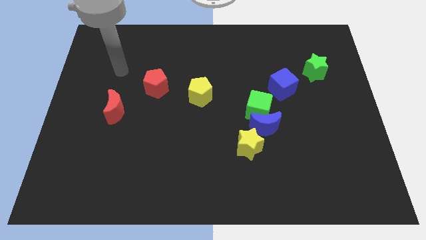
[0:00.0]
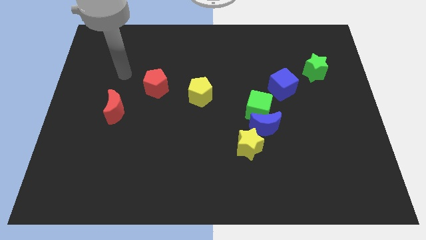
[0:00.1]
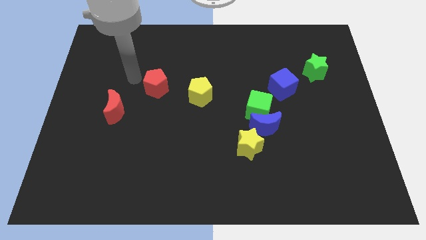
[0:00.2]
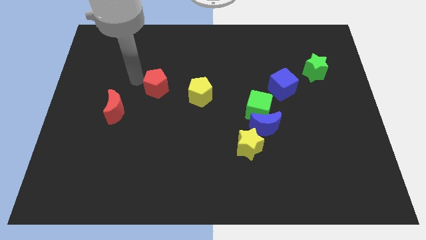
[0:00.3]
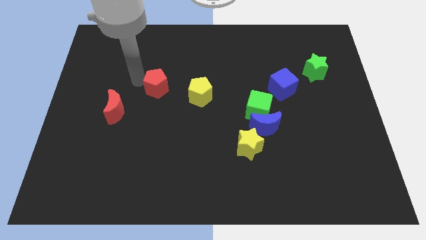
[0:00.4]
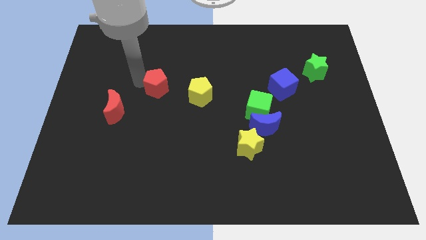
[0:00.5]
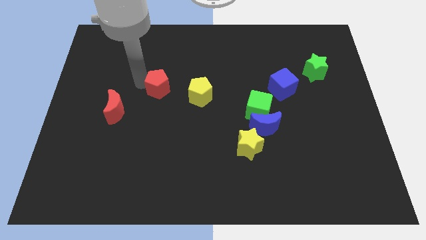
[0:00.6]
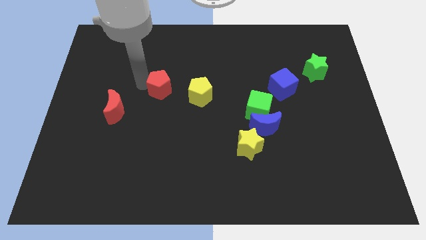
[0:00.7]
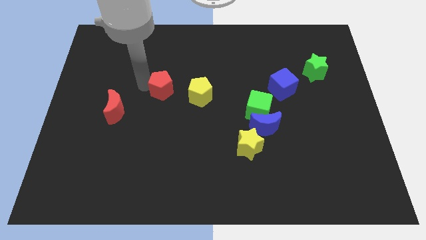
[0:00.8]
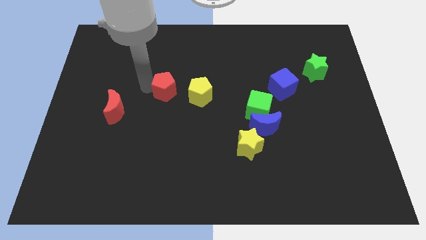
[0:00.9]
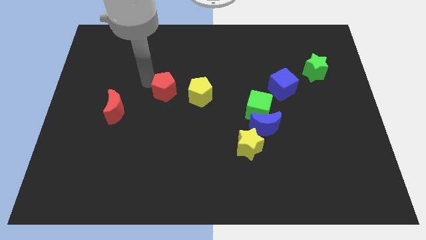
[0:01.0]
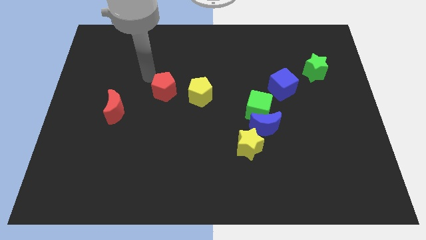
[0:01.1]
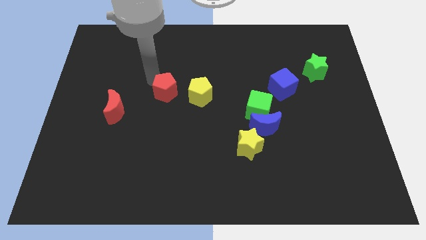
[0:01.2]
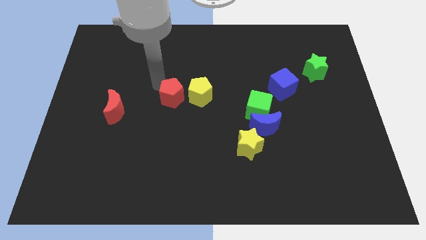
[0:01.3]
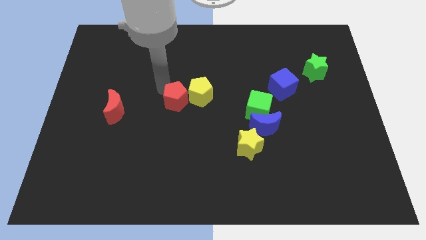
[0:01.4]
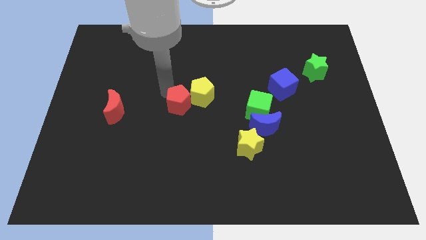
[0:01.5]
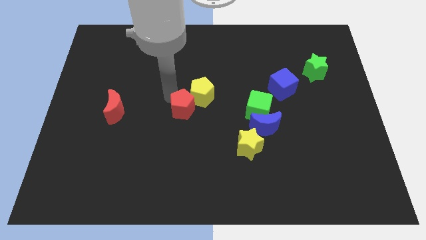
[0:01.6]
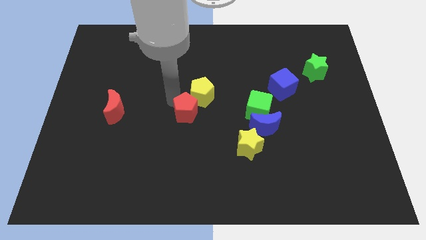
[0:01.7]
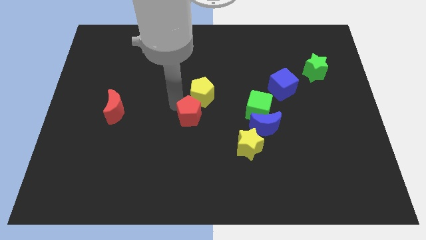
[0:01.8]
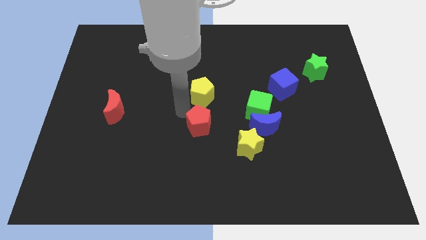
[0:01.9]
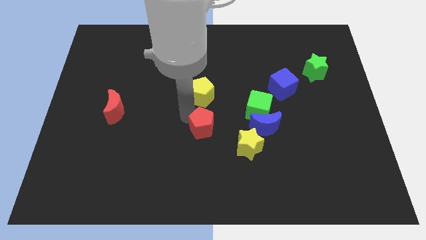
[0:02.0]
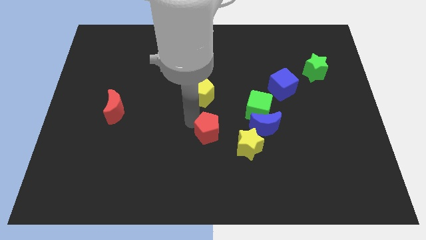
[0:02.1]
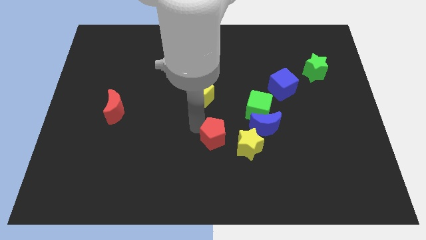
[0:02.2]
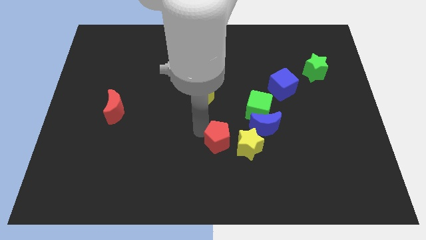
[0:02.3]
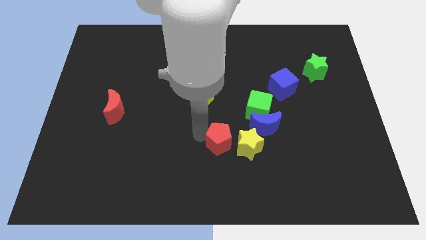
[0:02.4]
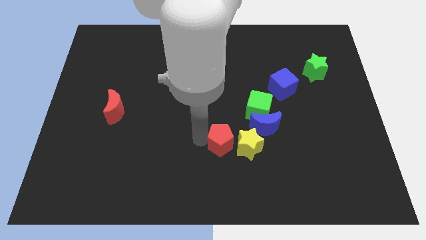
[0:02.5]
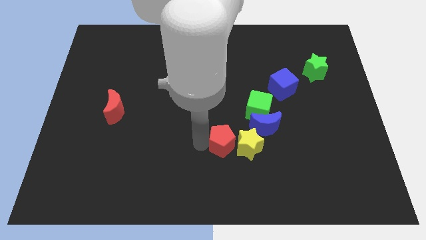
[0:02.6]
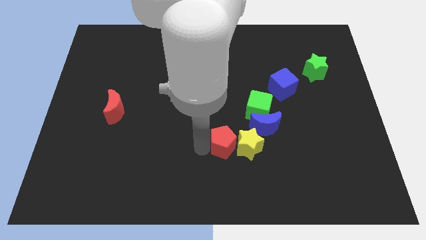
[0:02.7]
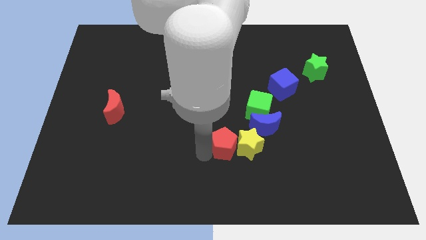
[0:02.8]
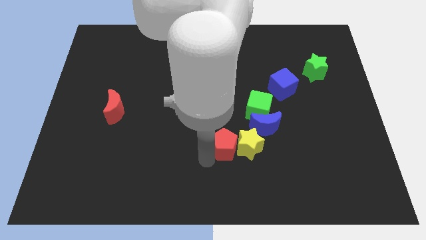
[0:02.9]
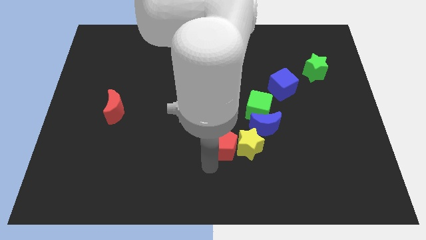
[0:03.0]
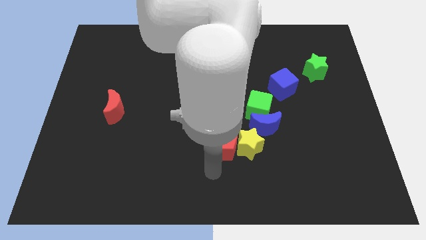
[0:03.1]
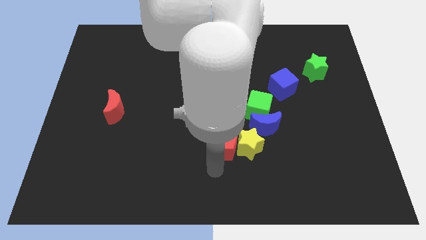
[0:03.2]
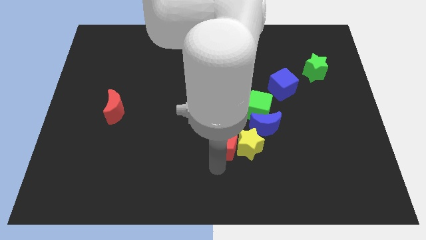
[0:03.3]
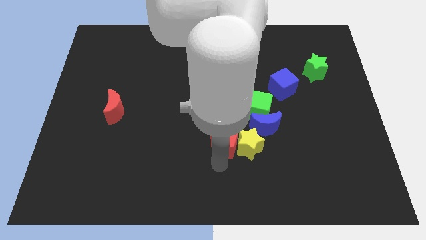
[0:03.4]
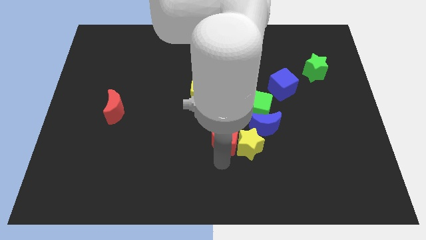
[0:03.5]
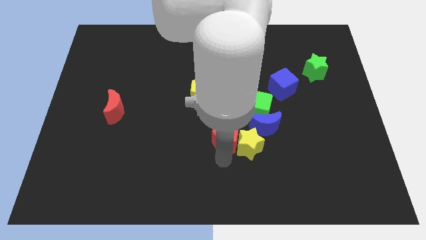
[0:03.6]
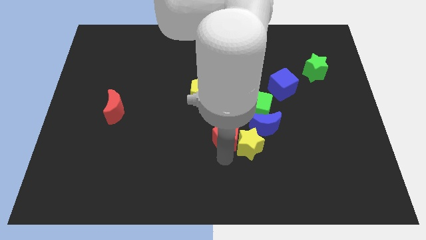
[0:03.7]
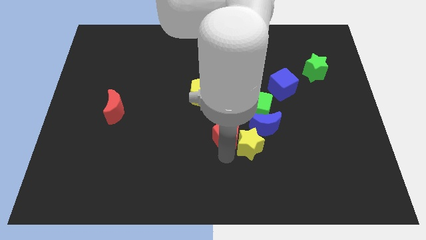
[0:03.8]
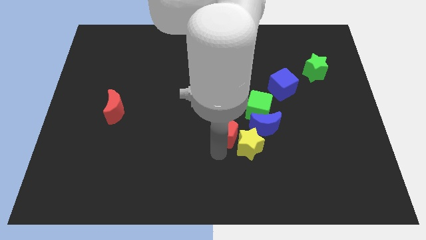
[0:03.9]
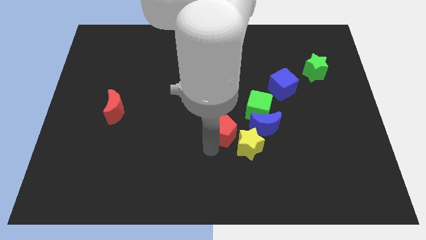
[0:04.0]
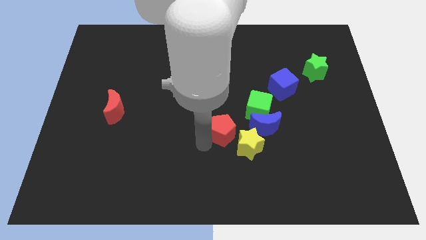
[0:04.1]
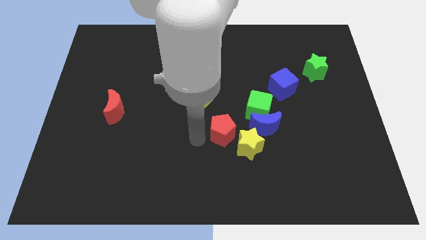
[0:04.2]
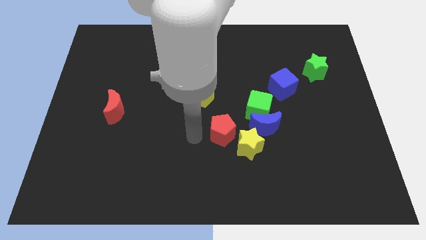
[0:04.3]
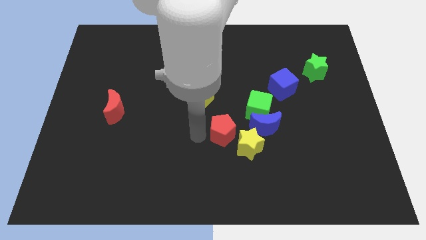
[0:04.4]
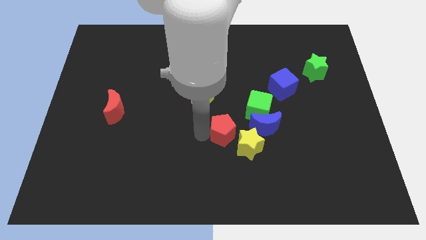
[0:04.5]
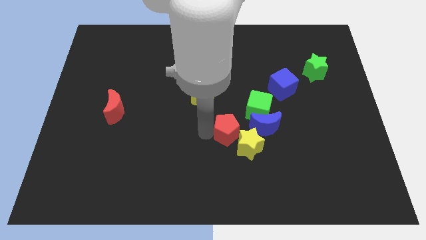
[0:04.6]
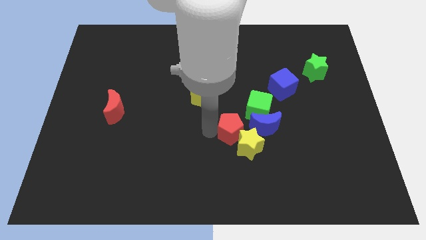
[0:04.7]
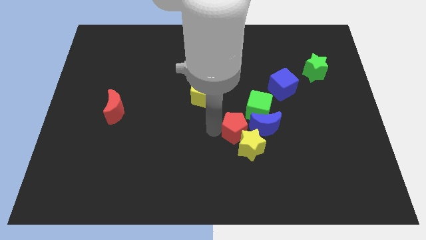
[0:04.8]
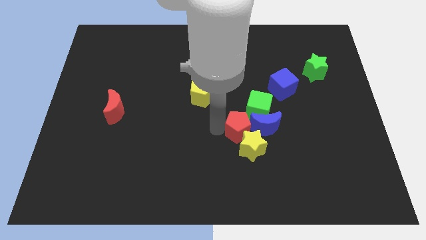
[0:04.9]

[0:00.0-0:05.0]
move the red pentagon close to the blue moon
